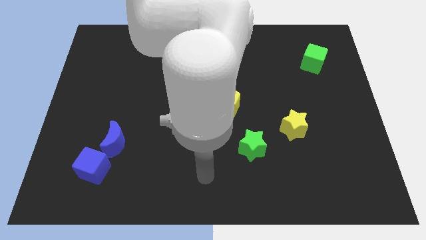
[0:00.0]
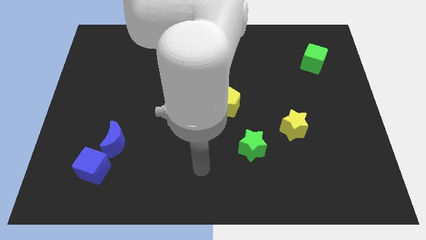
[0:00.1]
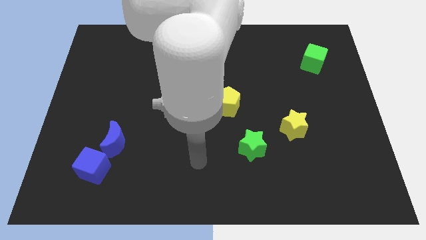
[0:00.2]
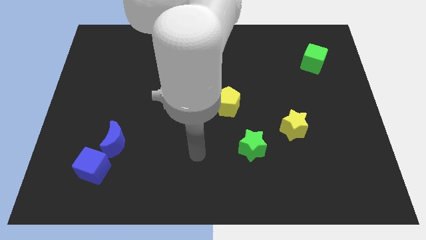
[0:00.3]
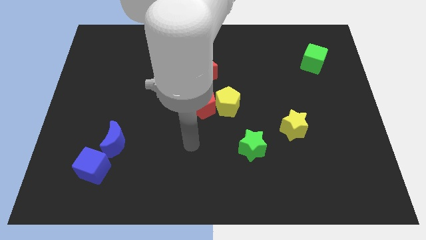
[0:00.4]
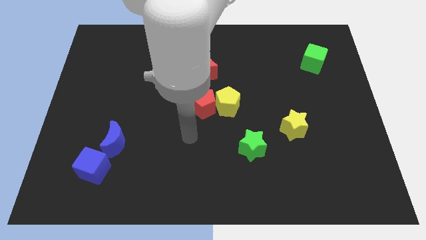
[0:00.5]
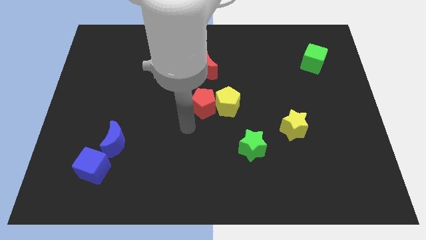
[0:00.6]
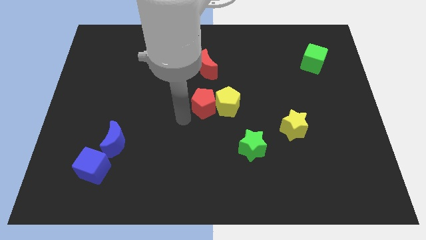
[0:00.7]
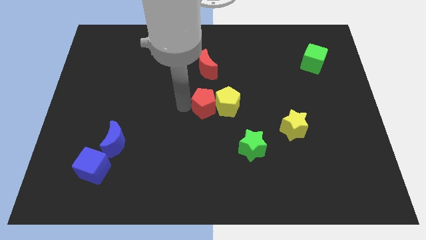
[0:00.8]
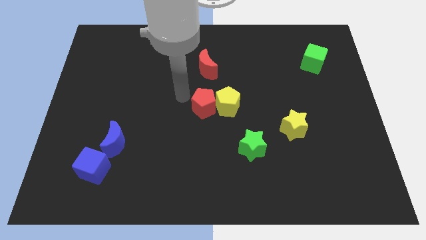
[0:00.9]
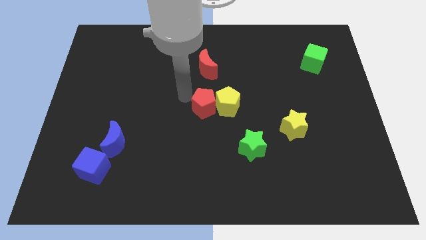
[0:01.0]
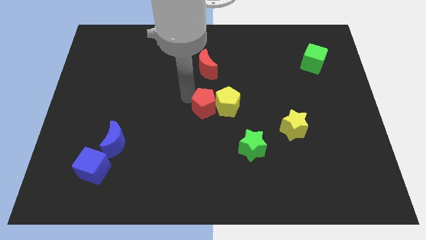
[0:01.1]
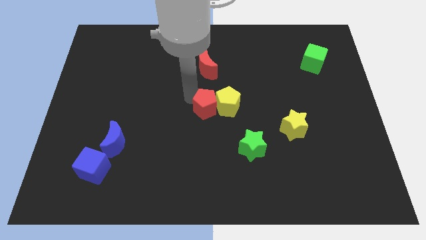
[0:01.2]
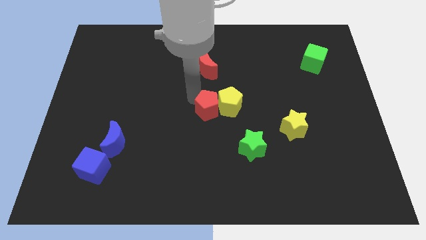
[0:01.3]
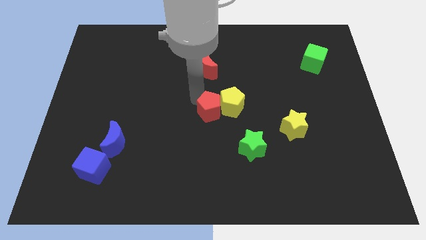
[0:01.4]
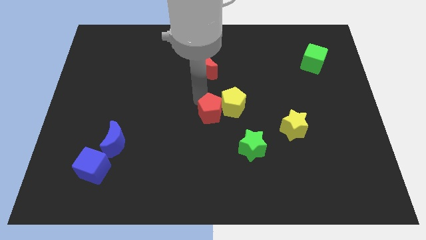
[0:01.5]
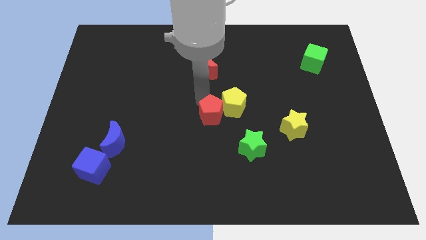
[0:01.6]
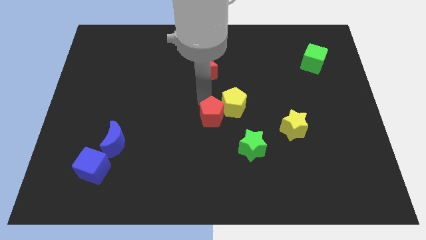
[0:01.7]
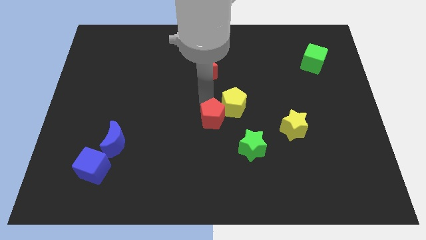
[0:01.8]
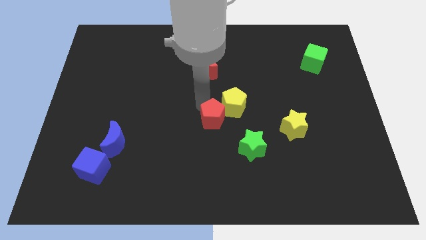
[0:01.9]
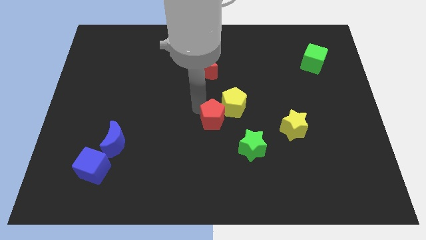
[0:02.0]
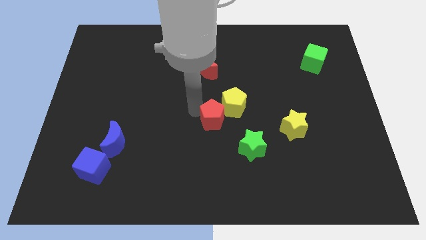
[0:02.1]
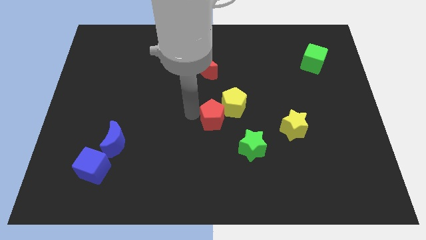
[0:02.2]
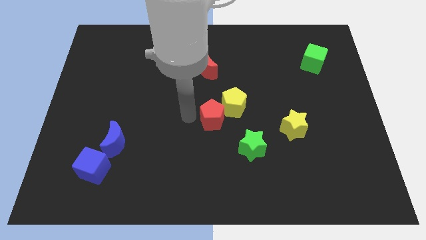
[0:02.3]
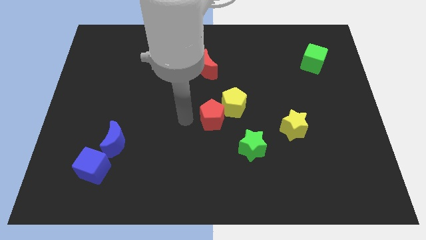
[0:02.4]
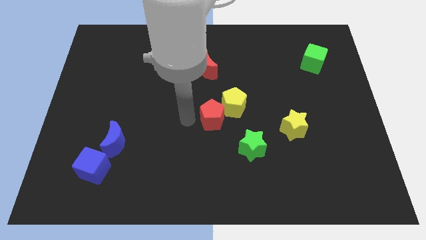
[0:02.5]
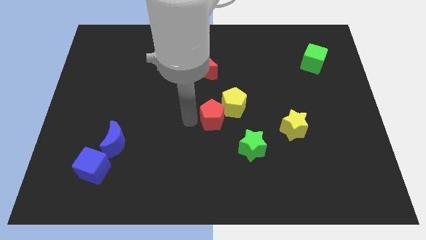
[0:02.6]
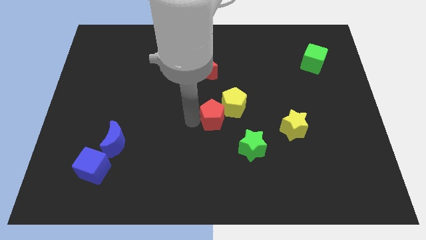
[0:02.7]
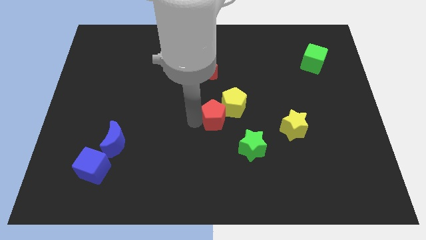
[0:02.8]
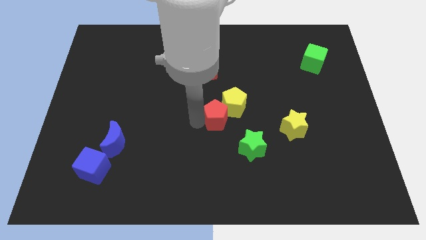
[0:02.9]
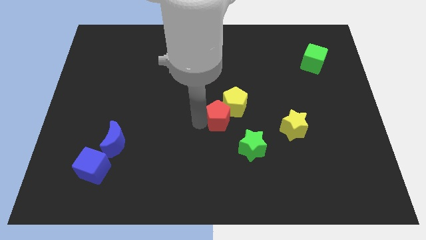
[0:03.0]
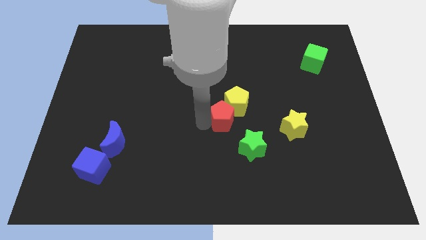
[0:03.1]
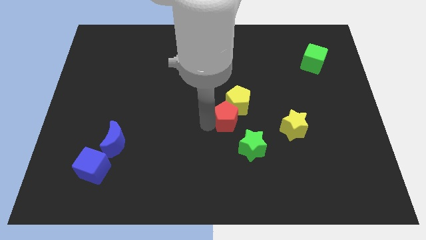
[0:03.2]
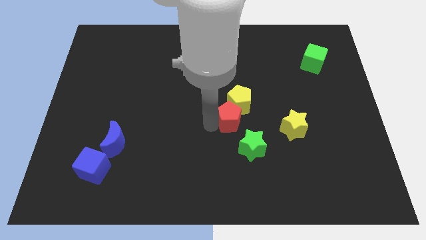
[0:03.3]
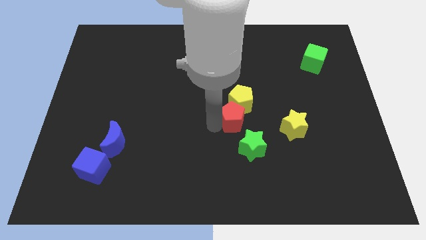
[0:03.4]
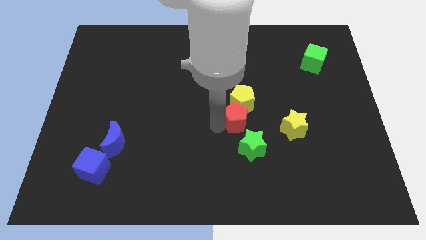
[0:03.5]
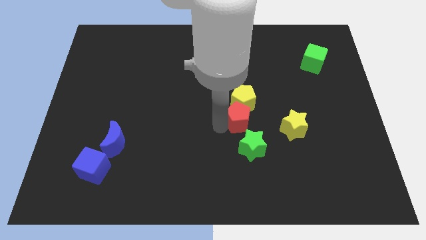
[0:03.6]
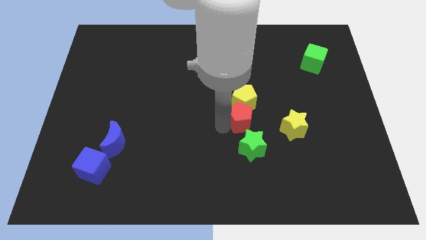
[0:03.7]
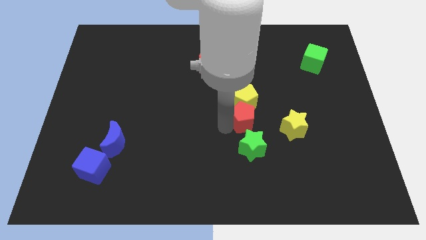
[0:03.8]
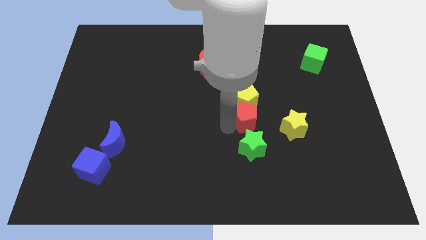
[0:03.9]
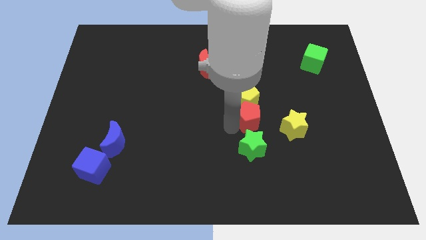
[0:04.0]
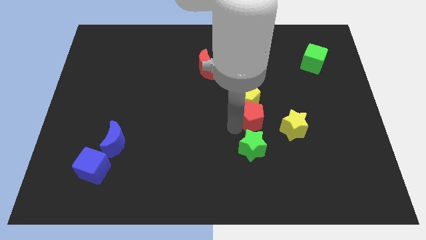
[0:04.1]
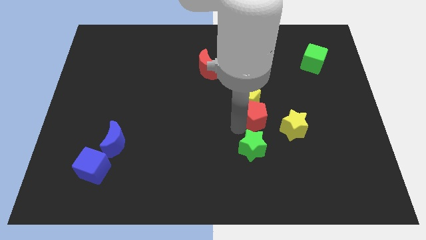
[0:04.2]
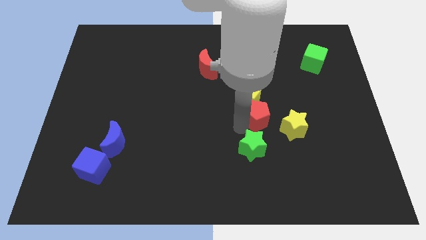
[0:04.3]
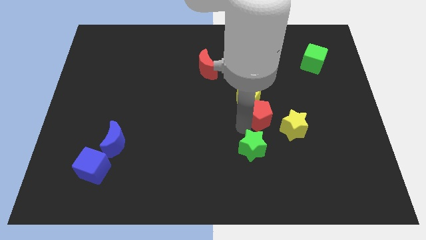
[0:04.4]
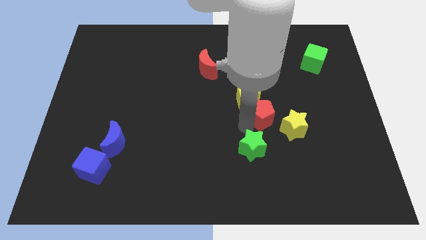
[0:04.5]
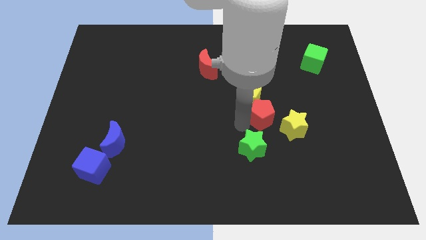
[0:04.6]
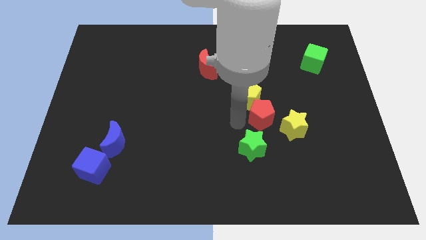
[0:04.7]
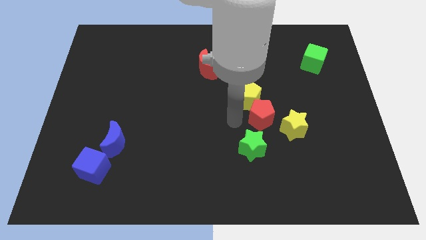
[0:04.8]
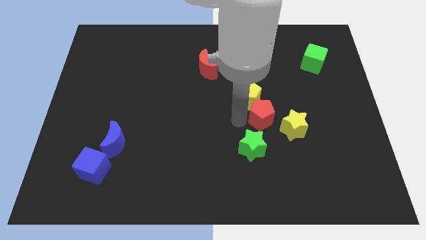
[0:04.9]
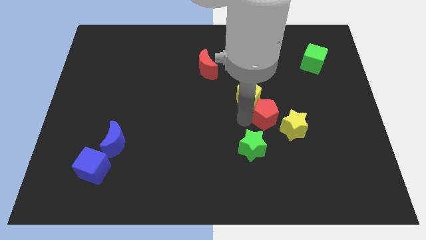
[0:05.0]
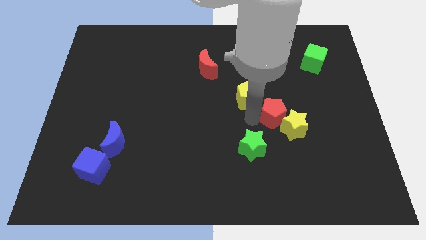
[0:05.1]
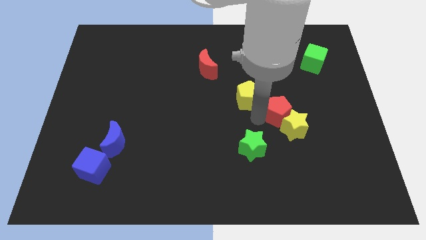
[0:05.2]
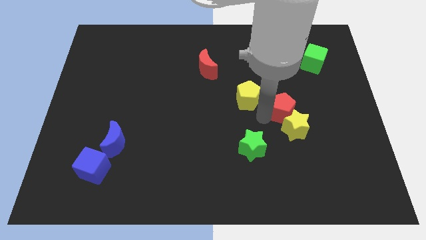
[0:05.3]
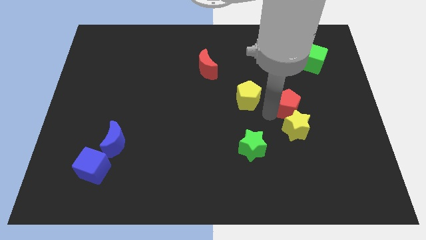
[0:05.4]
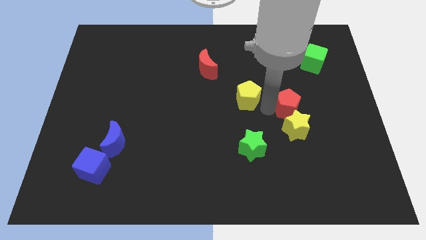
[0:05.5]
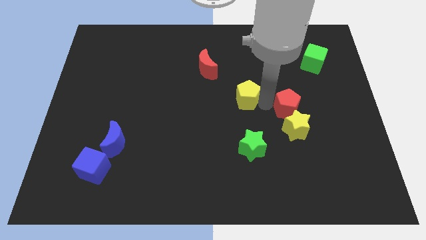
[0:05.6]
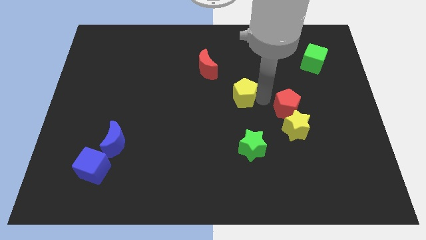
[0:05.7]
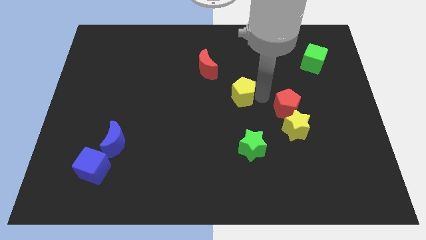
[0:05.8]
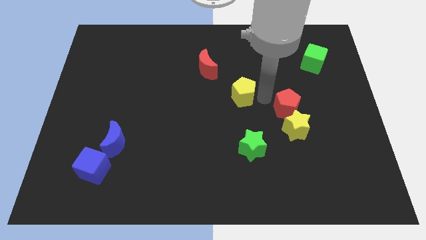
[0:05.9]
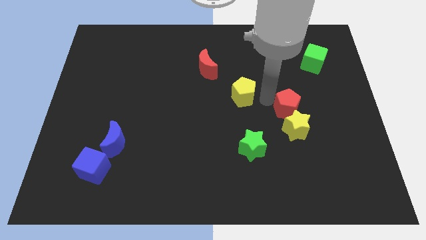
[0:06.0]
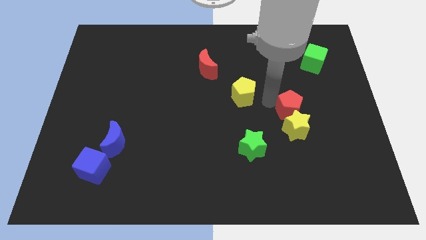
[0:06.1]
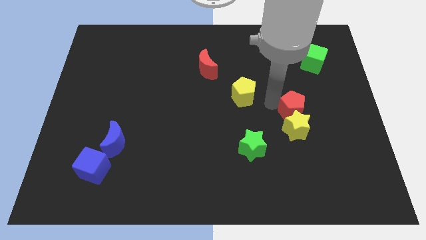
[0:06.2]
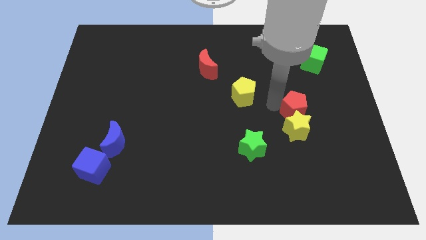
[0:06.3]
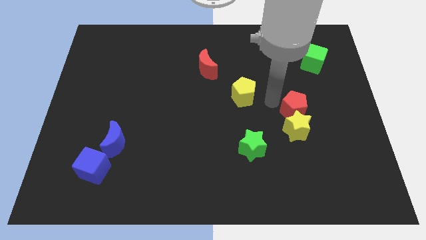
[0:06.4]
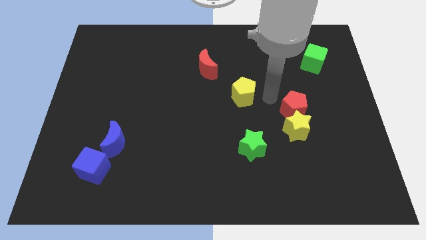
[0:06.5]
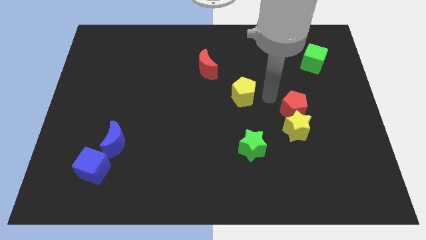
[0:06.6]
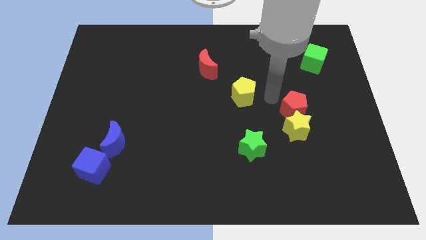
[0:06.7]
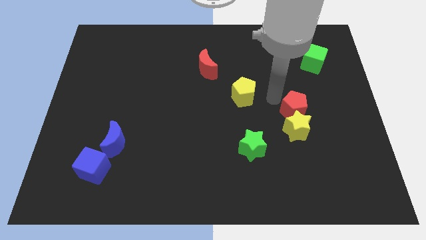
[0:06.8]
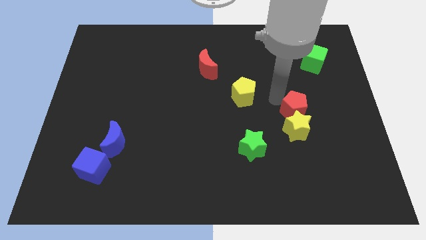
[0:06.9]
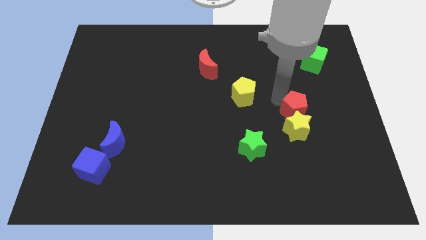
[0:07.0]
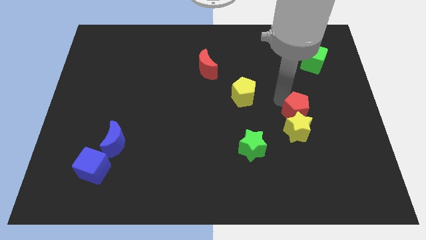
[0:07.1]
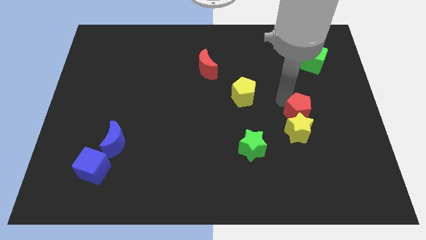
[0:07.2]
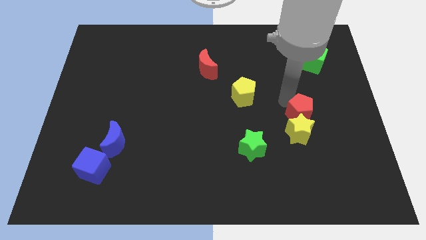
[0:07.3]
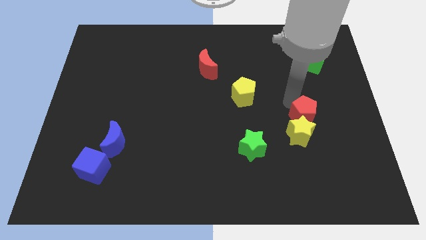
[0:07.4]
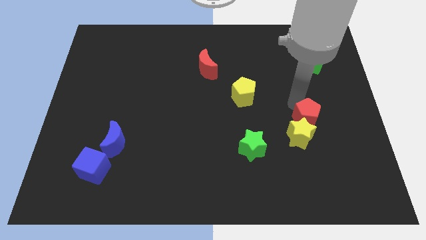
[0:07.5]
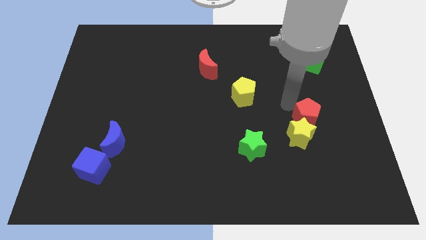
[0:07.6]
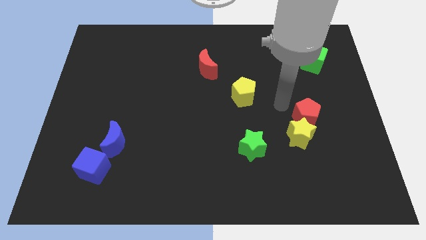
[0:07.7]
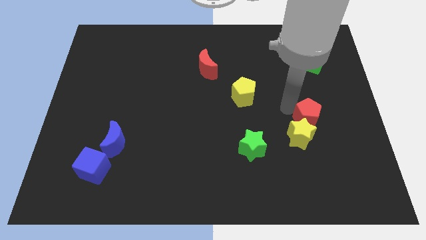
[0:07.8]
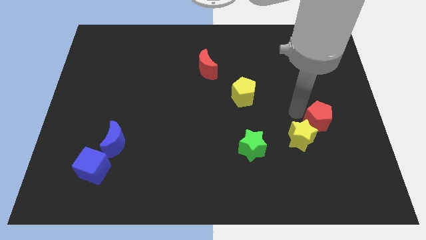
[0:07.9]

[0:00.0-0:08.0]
slide the red pentagon just right of the yellow star
